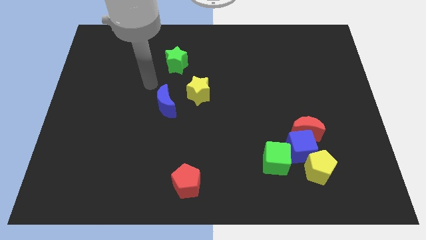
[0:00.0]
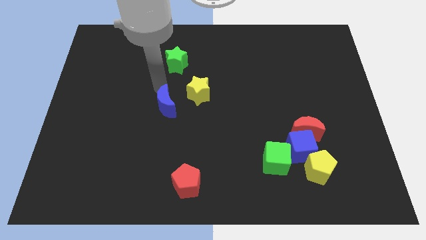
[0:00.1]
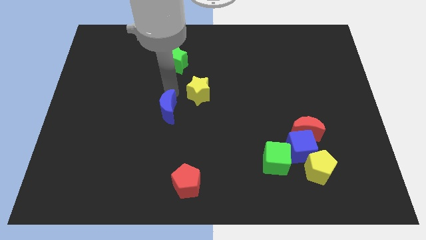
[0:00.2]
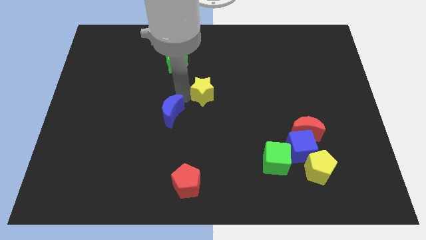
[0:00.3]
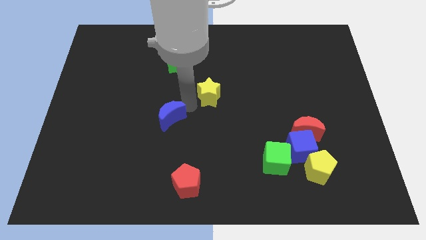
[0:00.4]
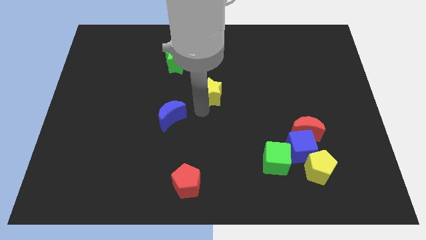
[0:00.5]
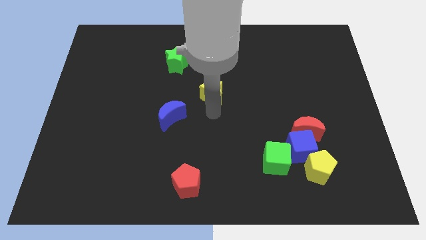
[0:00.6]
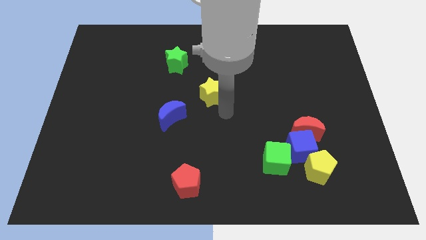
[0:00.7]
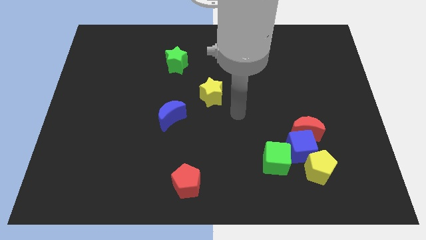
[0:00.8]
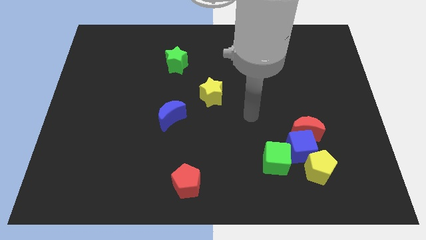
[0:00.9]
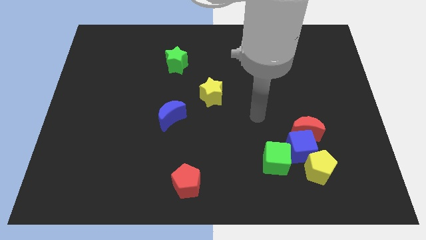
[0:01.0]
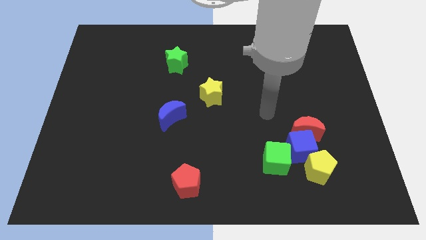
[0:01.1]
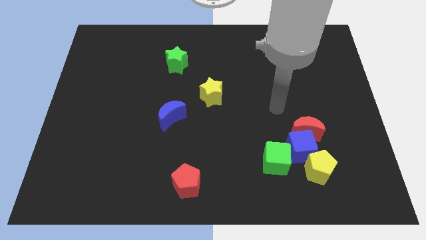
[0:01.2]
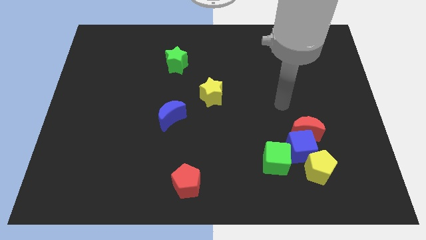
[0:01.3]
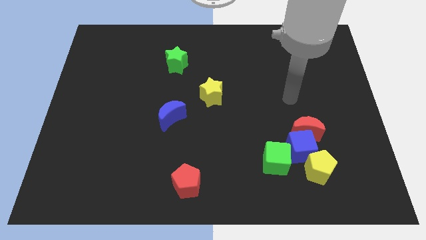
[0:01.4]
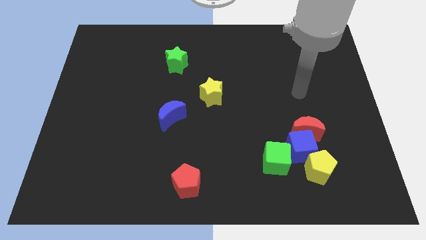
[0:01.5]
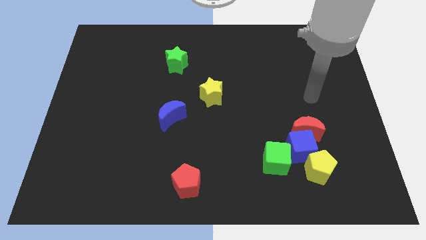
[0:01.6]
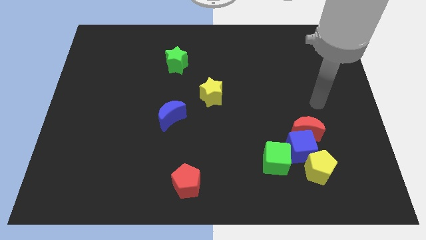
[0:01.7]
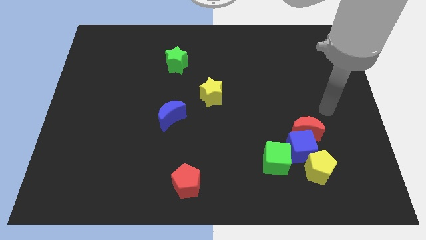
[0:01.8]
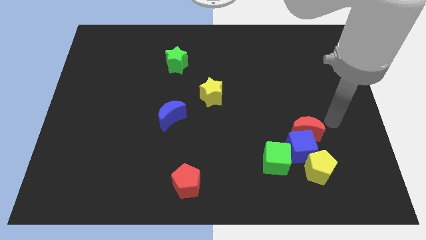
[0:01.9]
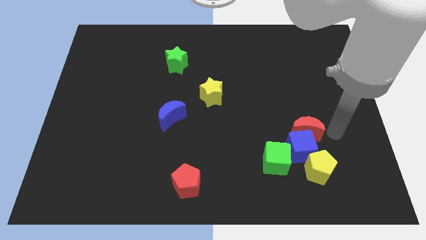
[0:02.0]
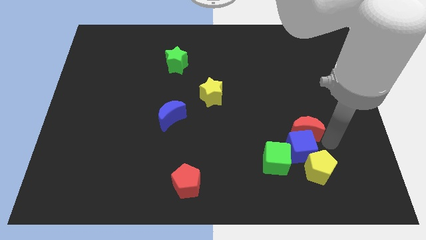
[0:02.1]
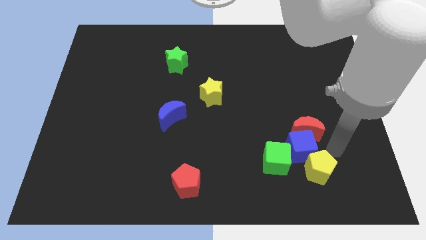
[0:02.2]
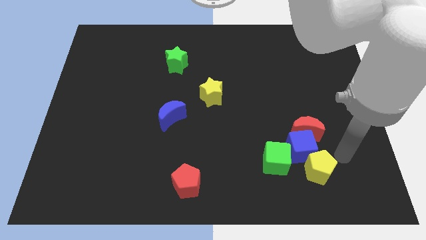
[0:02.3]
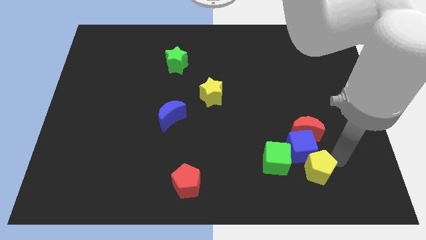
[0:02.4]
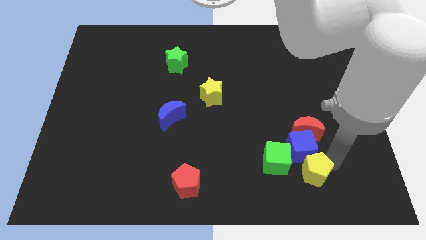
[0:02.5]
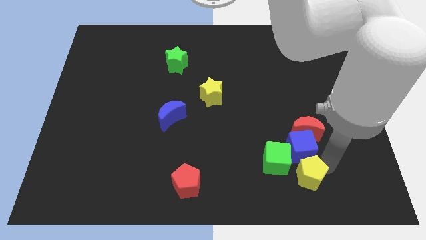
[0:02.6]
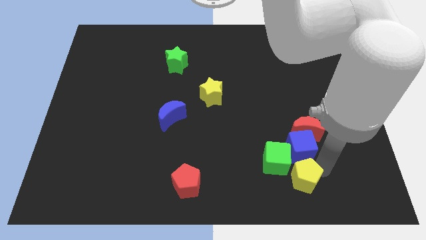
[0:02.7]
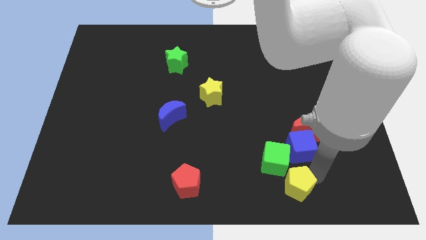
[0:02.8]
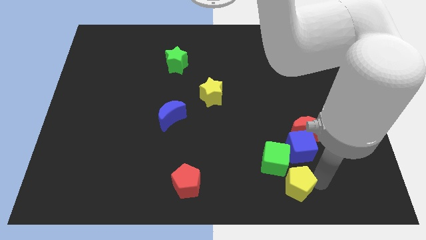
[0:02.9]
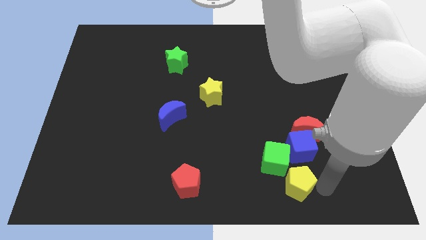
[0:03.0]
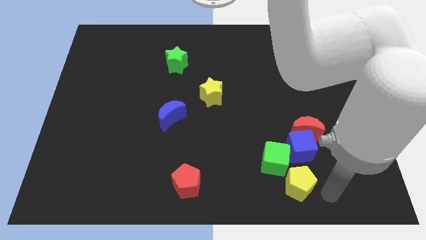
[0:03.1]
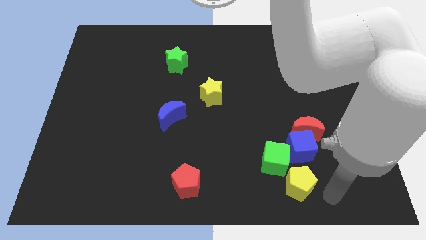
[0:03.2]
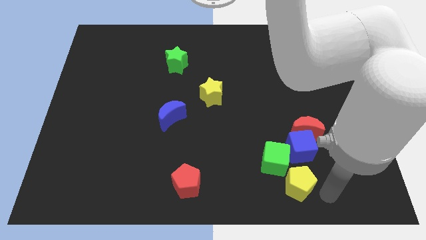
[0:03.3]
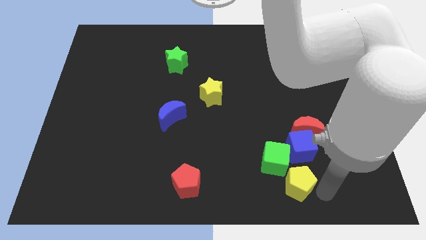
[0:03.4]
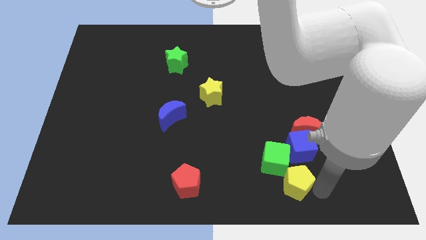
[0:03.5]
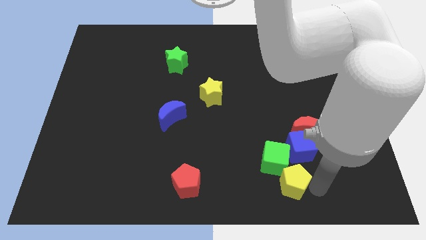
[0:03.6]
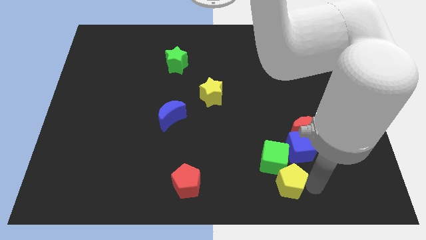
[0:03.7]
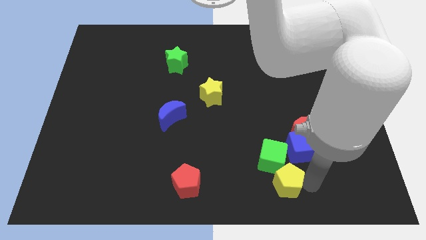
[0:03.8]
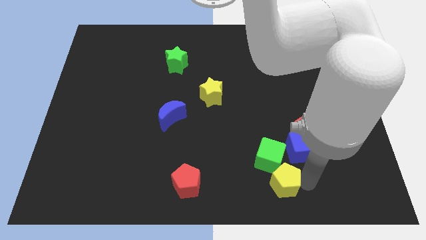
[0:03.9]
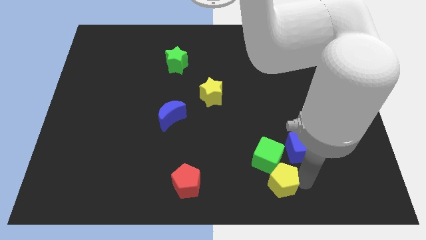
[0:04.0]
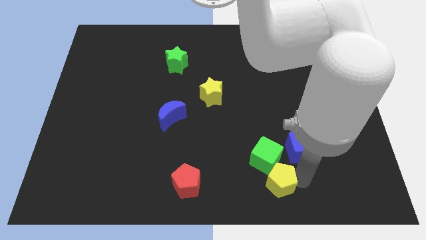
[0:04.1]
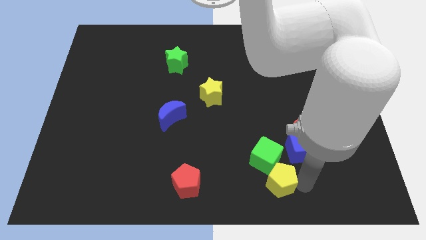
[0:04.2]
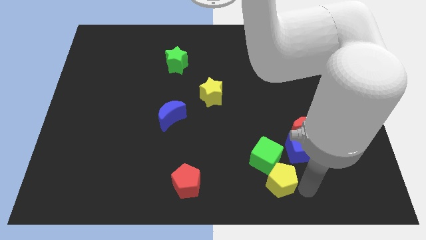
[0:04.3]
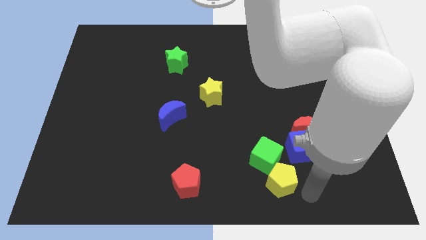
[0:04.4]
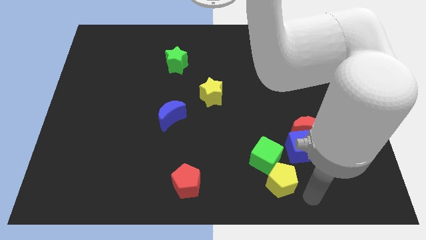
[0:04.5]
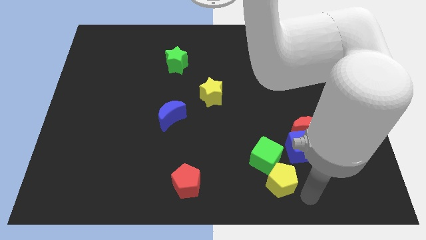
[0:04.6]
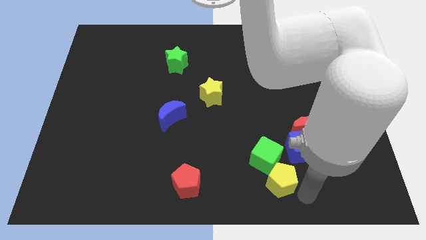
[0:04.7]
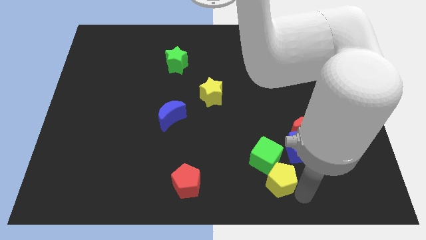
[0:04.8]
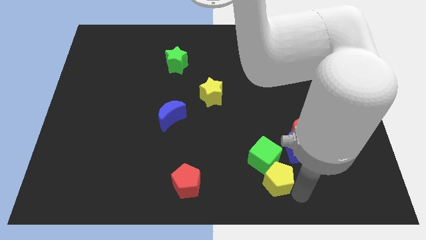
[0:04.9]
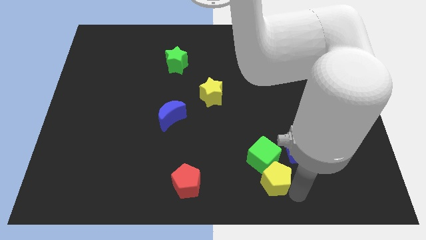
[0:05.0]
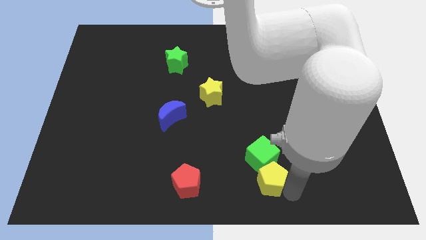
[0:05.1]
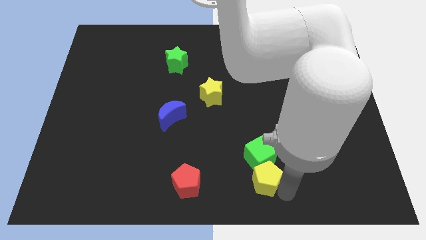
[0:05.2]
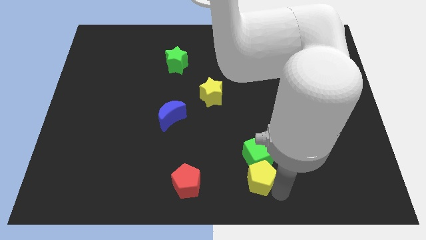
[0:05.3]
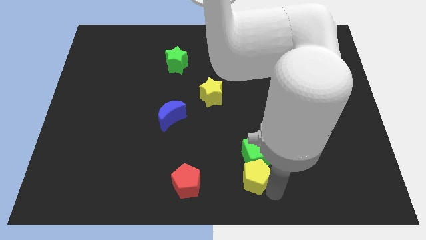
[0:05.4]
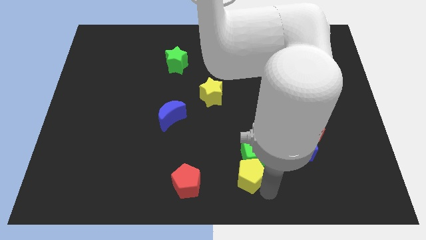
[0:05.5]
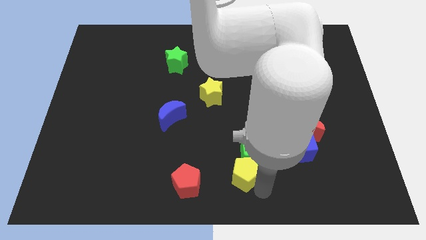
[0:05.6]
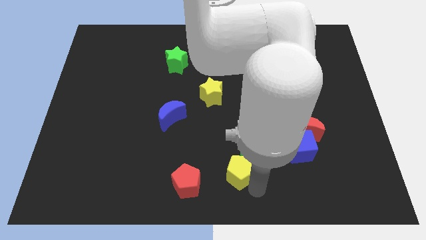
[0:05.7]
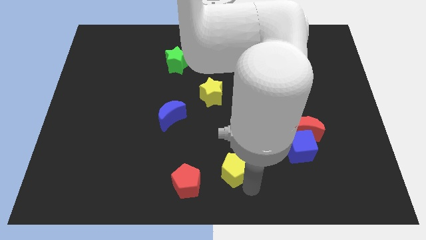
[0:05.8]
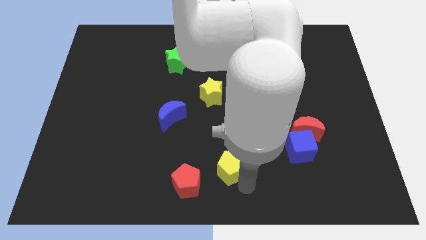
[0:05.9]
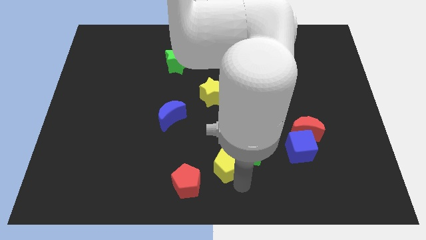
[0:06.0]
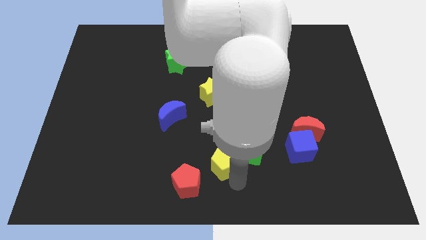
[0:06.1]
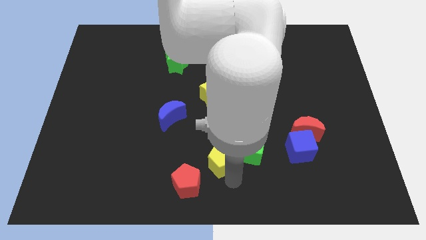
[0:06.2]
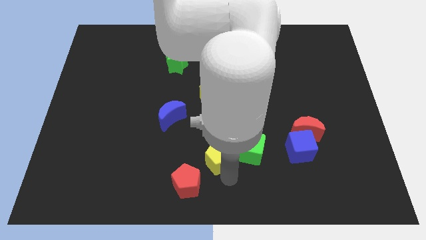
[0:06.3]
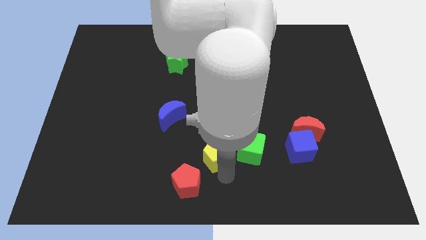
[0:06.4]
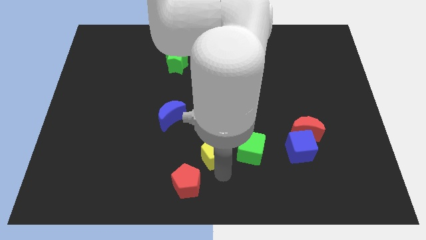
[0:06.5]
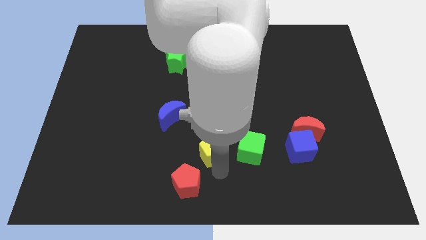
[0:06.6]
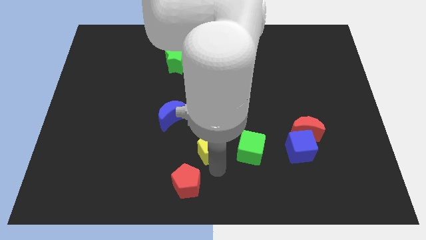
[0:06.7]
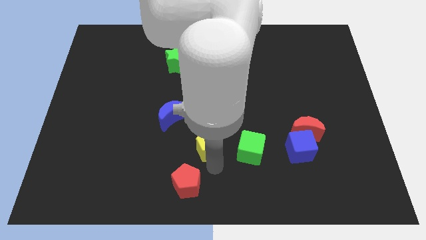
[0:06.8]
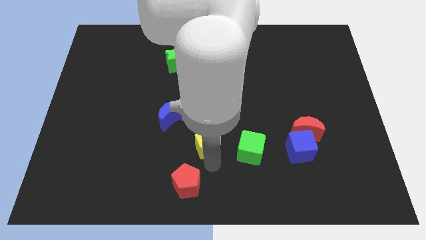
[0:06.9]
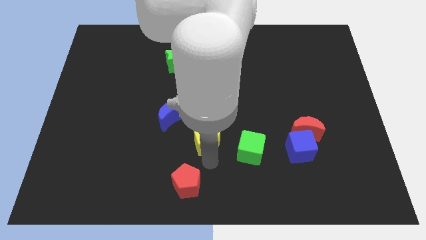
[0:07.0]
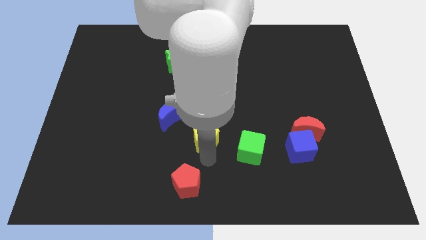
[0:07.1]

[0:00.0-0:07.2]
move the yellow pentagon to the top left of the green cube
